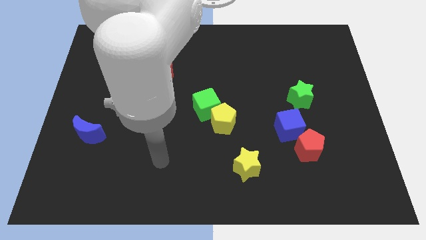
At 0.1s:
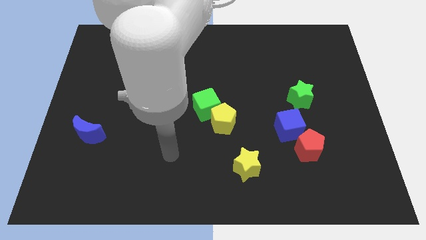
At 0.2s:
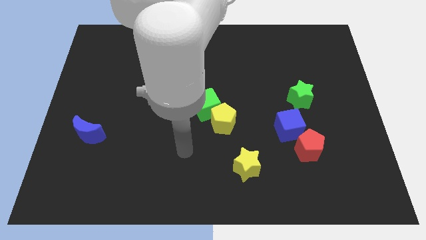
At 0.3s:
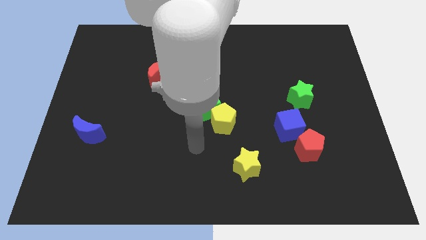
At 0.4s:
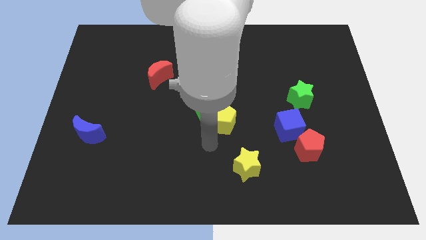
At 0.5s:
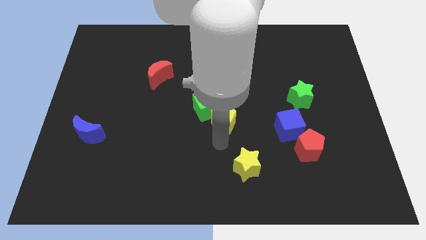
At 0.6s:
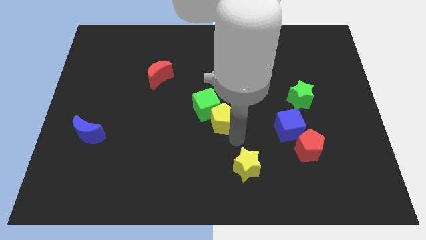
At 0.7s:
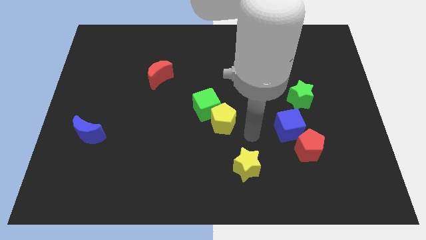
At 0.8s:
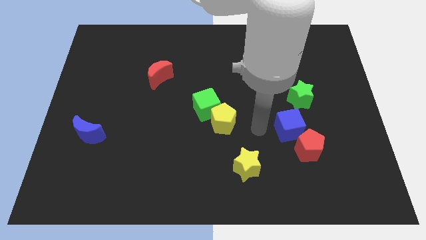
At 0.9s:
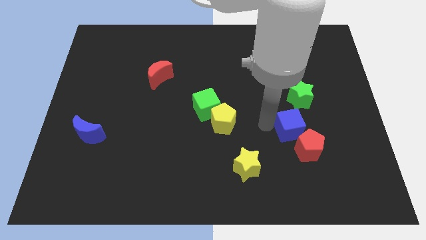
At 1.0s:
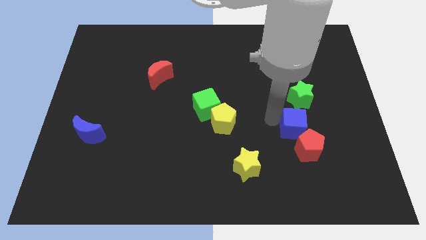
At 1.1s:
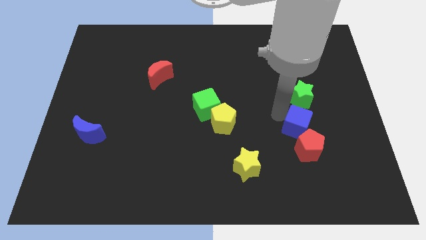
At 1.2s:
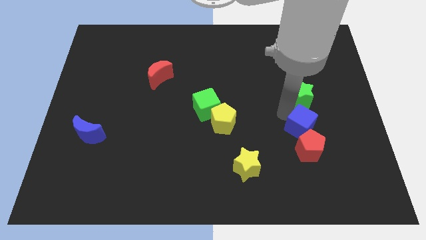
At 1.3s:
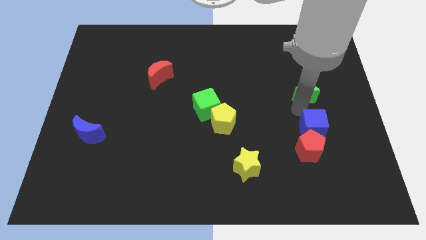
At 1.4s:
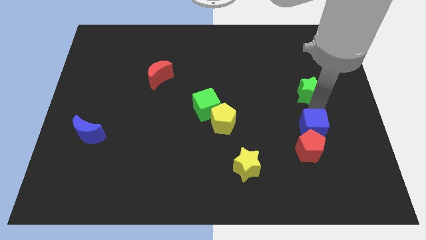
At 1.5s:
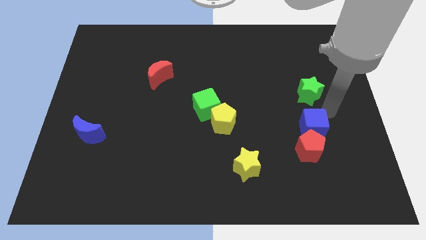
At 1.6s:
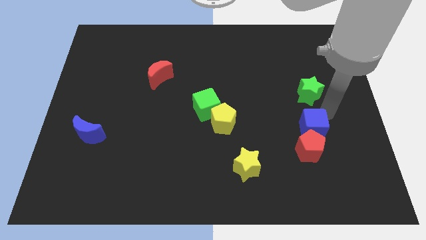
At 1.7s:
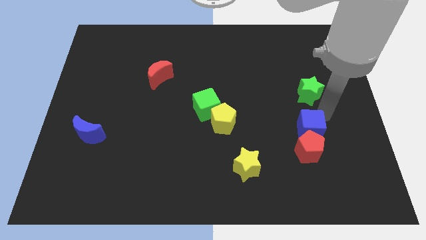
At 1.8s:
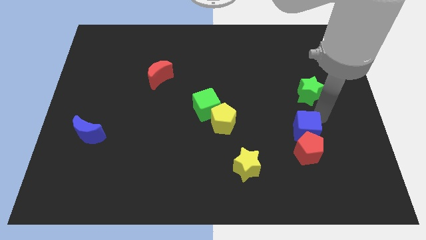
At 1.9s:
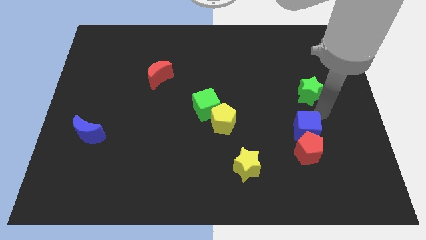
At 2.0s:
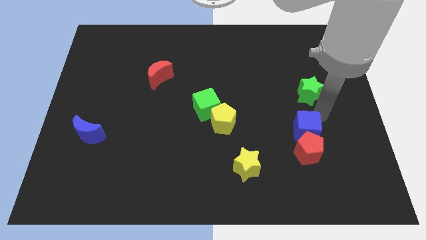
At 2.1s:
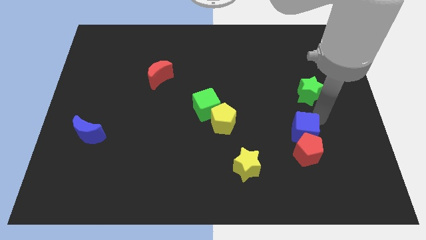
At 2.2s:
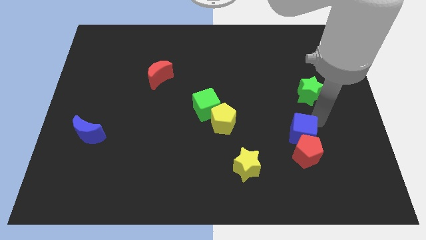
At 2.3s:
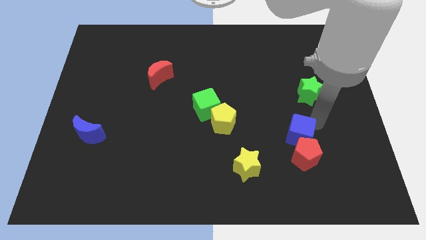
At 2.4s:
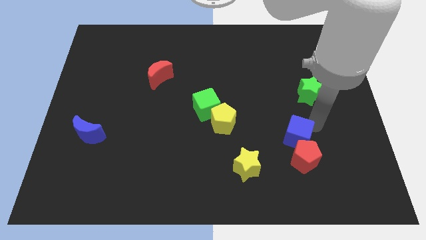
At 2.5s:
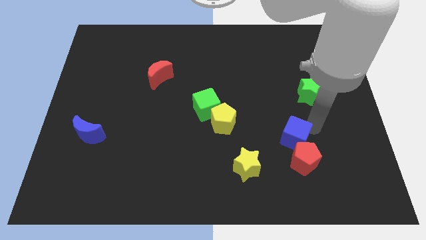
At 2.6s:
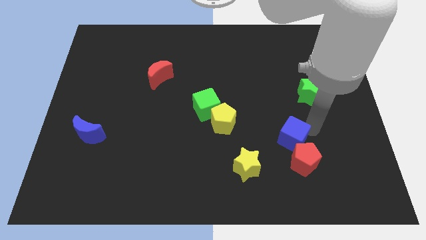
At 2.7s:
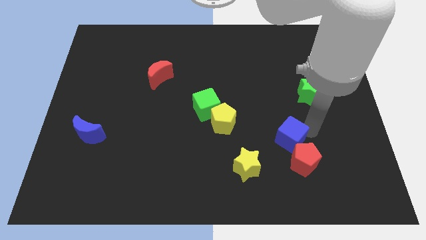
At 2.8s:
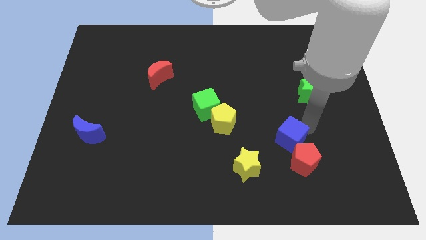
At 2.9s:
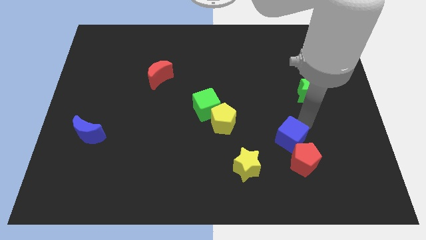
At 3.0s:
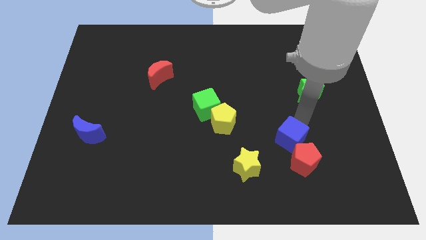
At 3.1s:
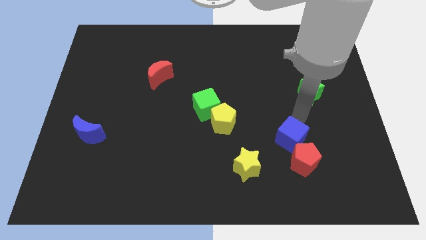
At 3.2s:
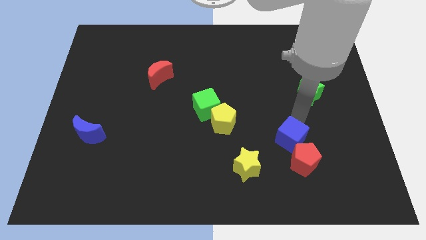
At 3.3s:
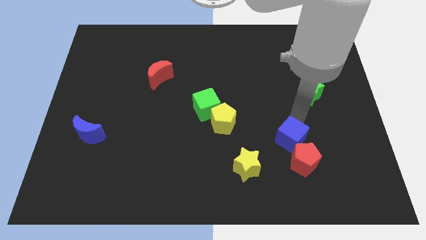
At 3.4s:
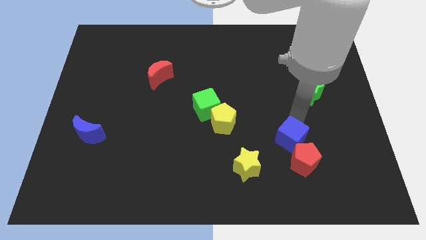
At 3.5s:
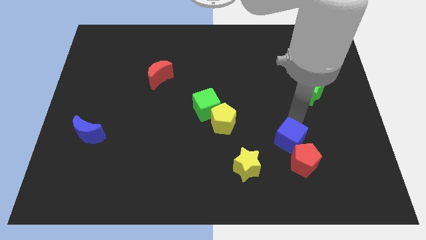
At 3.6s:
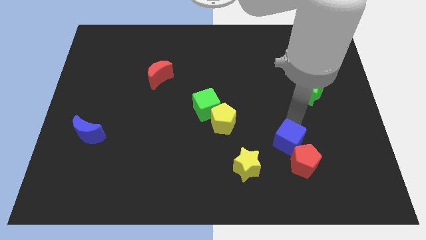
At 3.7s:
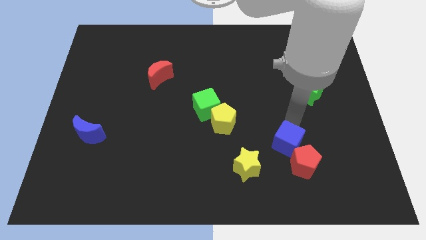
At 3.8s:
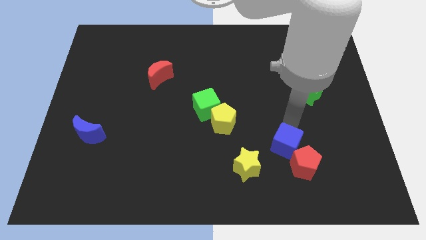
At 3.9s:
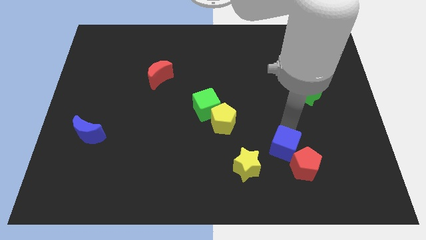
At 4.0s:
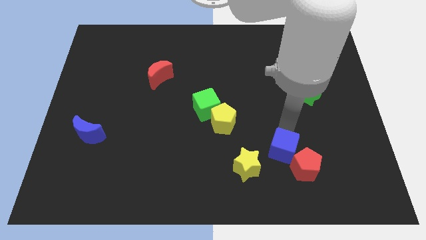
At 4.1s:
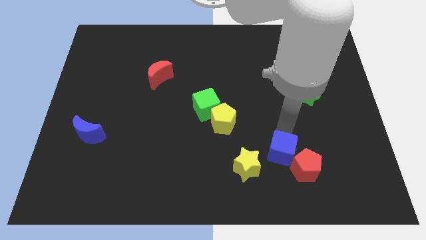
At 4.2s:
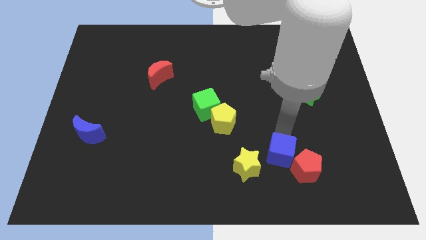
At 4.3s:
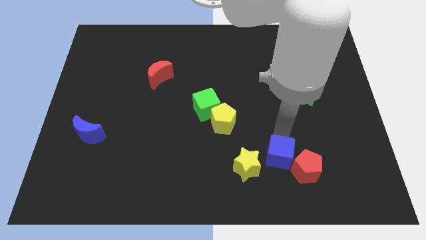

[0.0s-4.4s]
slightly push the blue cube down and to the left

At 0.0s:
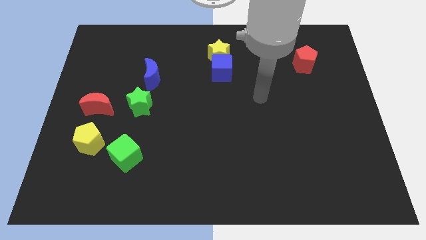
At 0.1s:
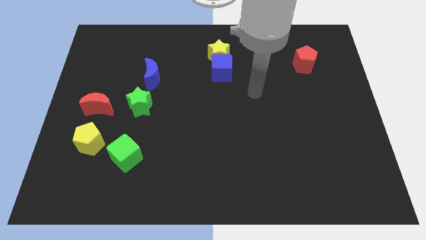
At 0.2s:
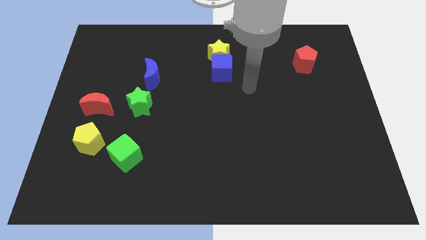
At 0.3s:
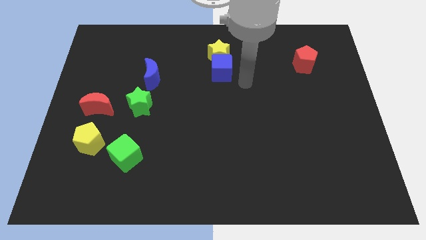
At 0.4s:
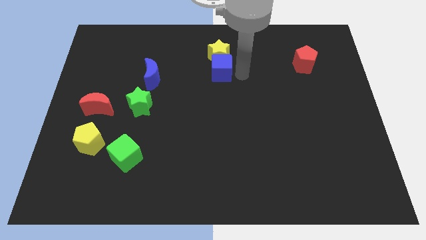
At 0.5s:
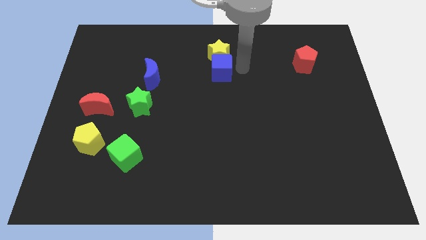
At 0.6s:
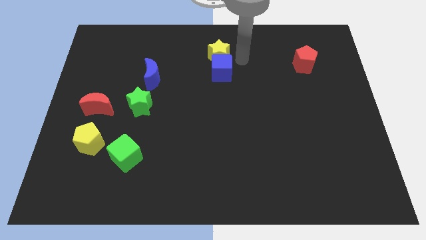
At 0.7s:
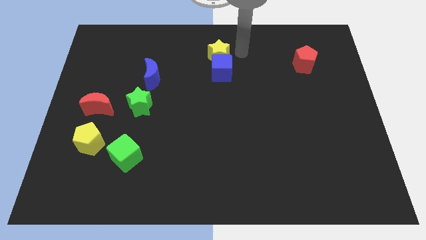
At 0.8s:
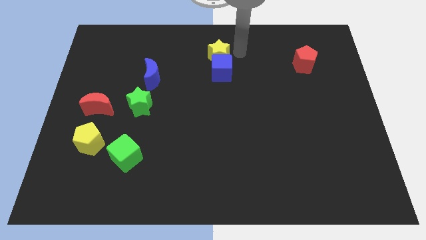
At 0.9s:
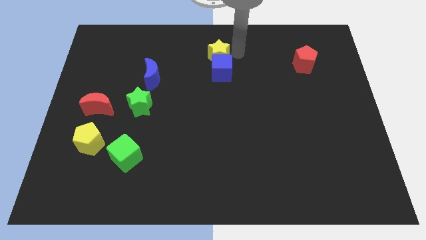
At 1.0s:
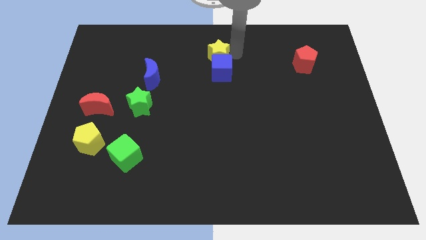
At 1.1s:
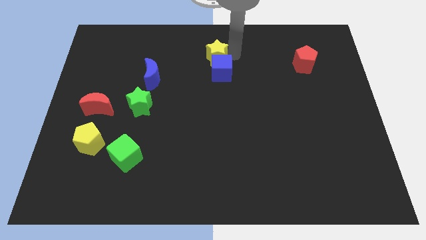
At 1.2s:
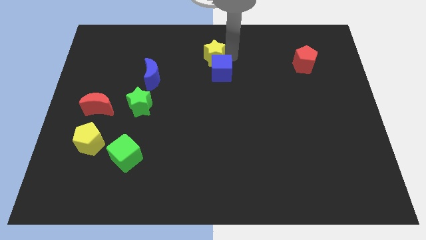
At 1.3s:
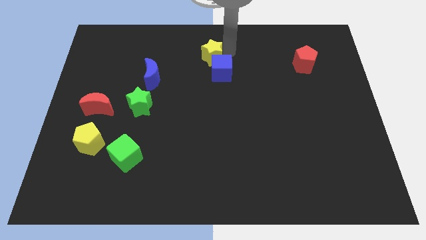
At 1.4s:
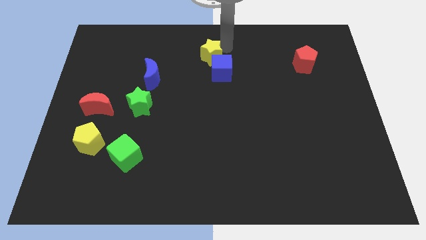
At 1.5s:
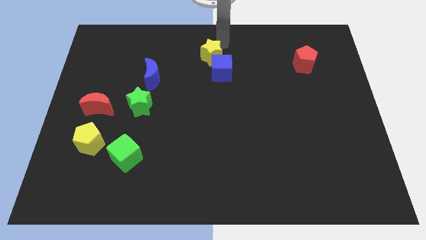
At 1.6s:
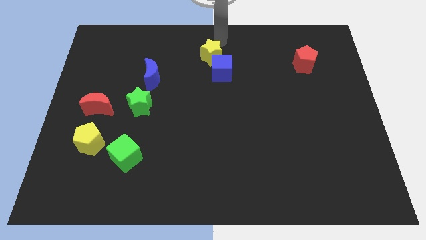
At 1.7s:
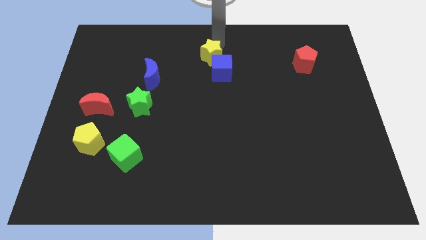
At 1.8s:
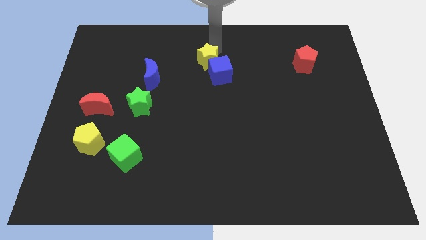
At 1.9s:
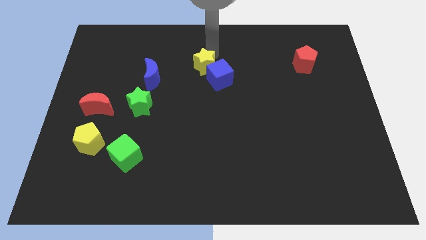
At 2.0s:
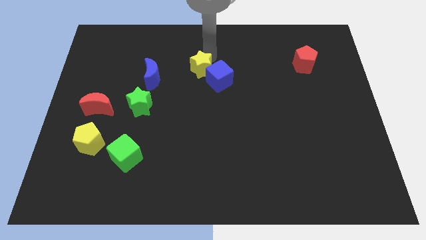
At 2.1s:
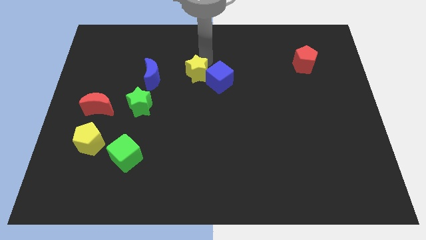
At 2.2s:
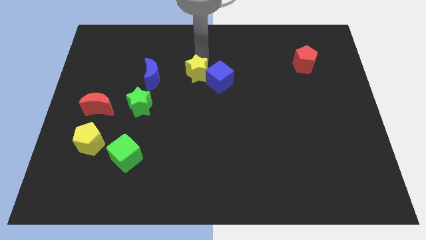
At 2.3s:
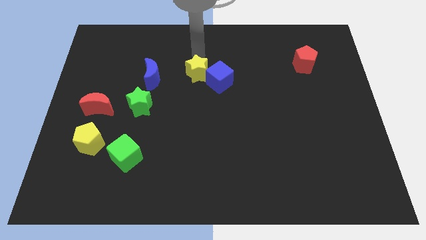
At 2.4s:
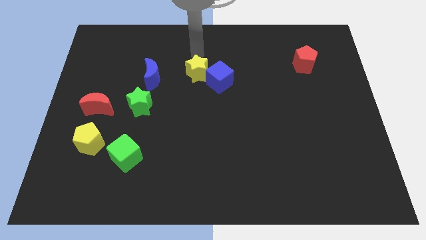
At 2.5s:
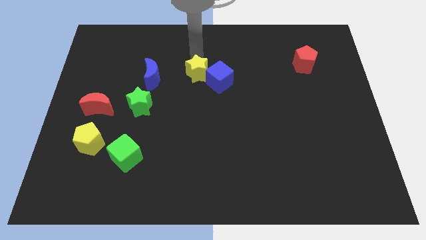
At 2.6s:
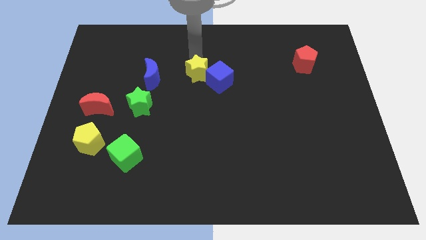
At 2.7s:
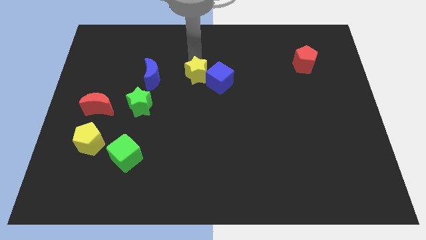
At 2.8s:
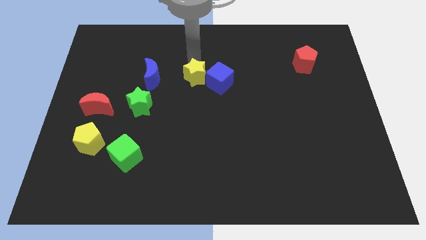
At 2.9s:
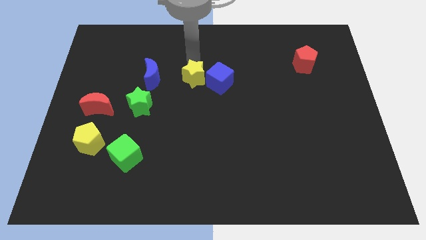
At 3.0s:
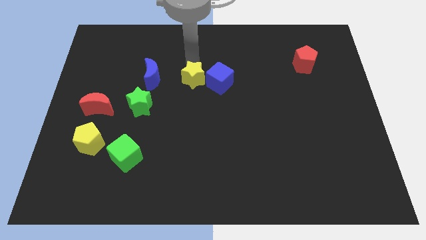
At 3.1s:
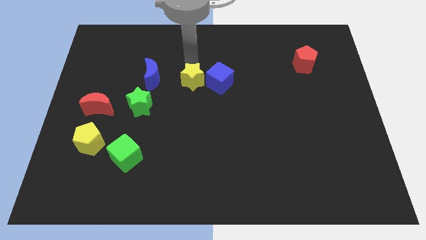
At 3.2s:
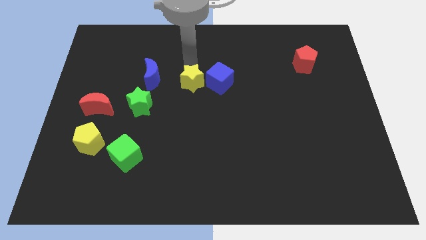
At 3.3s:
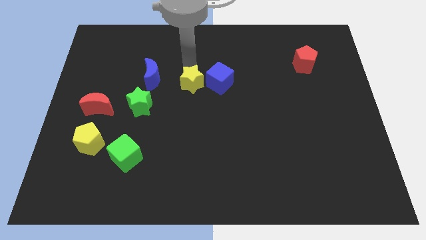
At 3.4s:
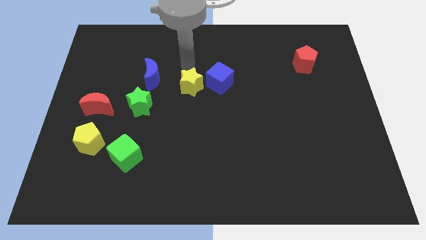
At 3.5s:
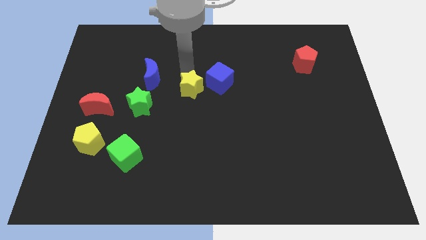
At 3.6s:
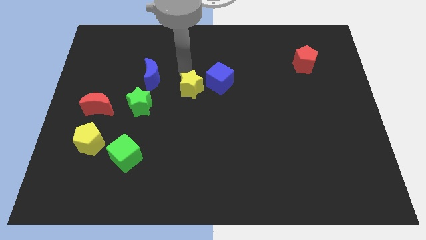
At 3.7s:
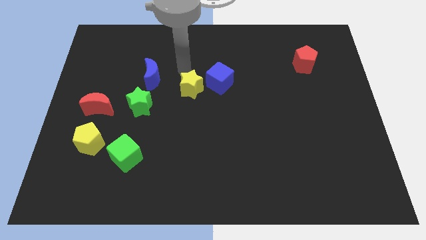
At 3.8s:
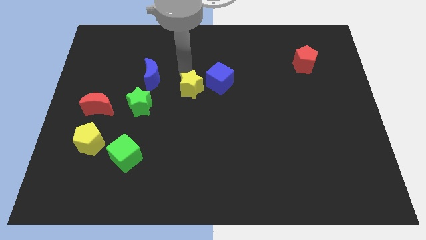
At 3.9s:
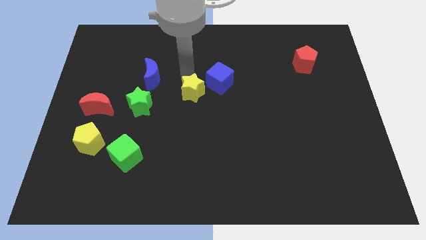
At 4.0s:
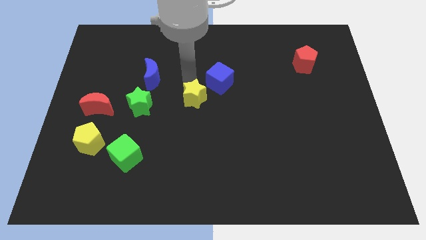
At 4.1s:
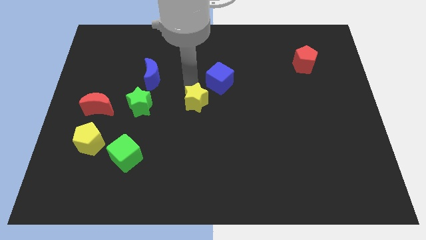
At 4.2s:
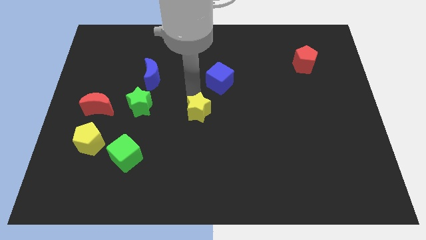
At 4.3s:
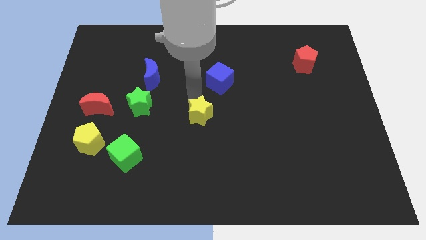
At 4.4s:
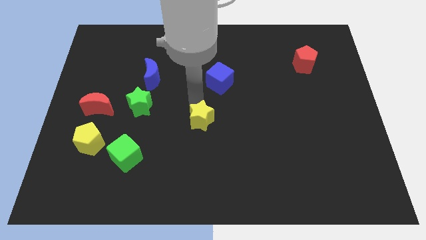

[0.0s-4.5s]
move the yellow star downwards
